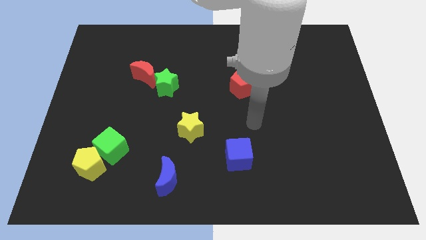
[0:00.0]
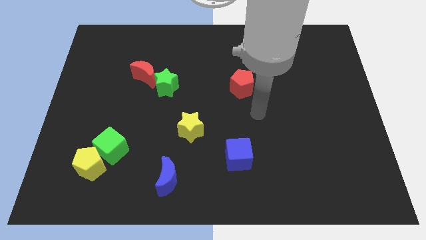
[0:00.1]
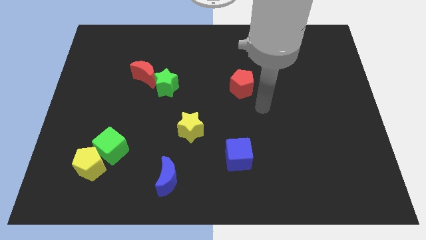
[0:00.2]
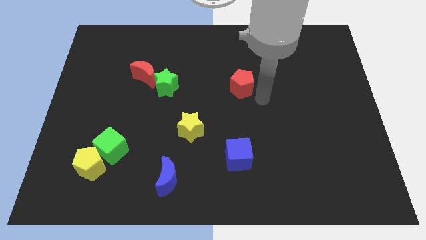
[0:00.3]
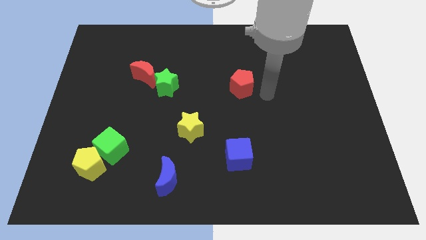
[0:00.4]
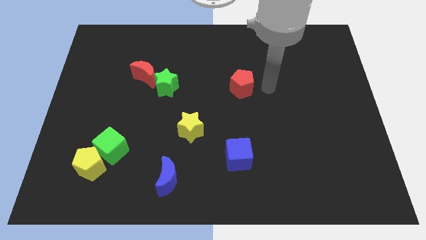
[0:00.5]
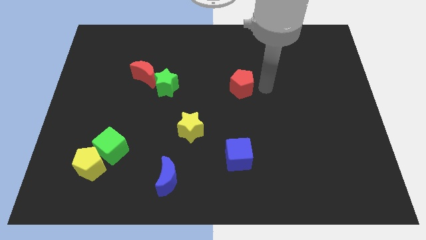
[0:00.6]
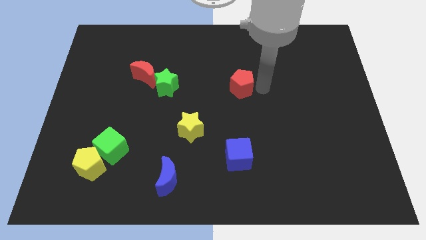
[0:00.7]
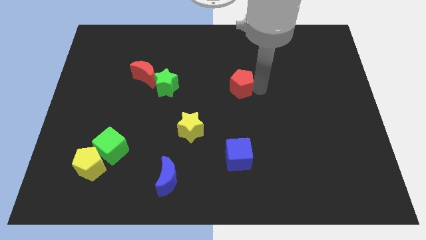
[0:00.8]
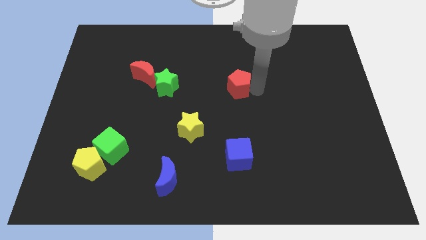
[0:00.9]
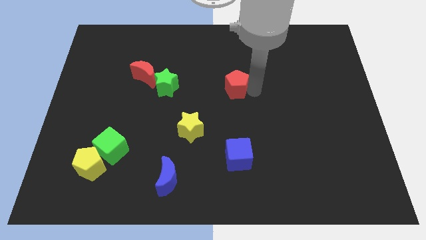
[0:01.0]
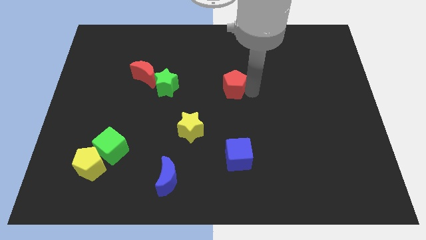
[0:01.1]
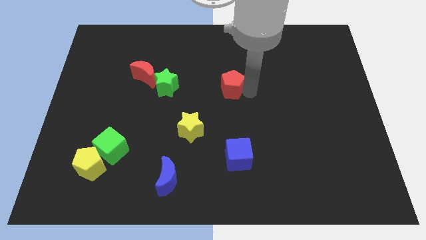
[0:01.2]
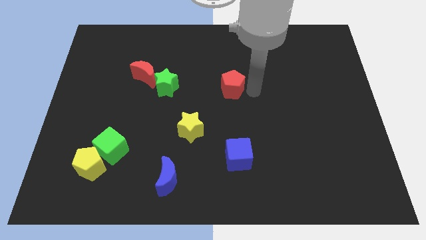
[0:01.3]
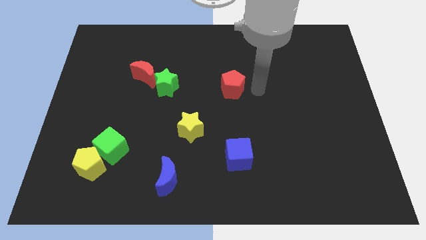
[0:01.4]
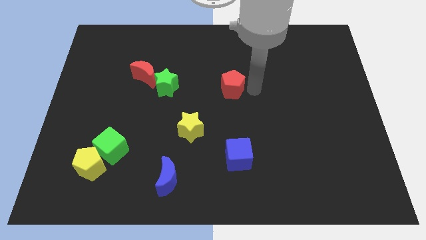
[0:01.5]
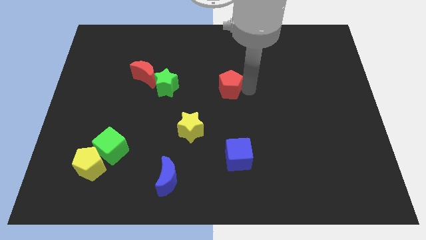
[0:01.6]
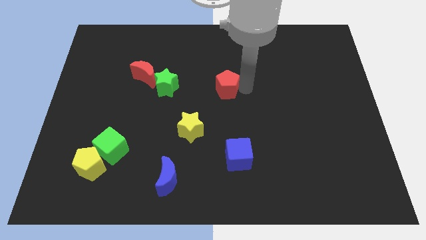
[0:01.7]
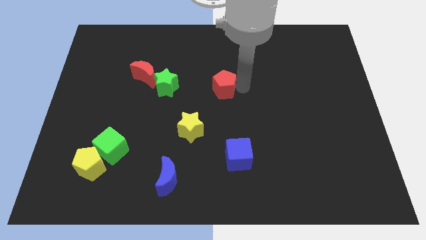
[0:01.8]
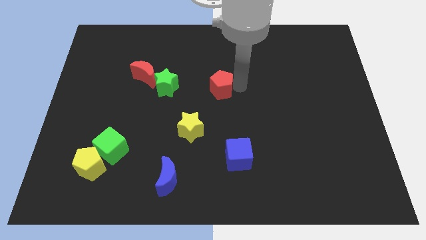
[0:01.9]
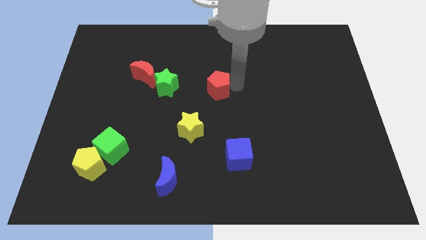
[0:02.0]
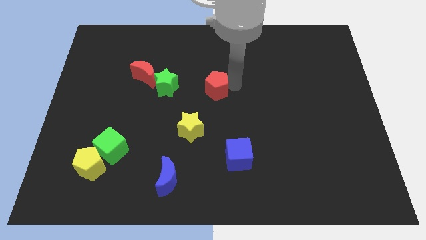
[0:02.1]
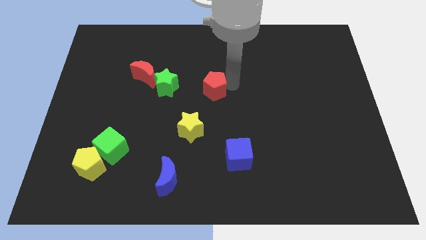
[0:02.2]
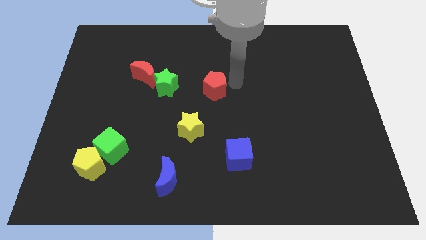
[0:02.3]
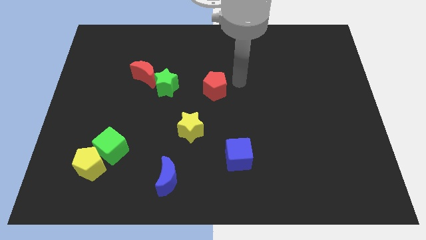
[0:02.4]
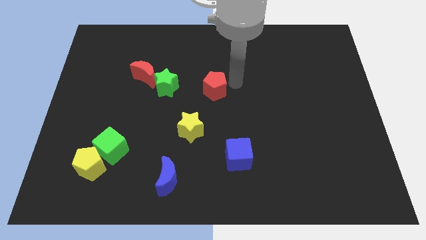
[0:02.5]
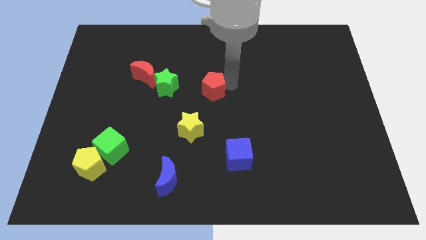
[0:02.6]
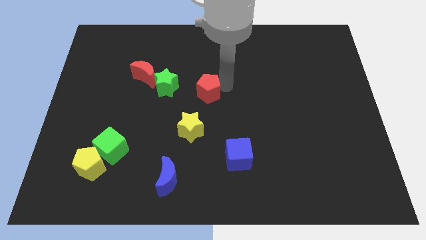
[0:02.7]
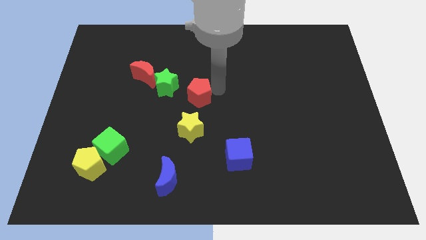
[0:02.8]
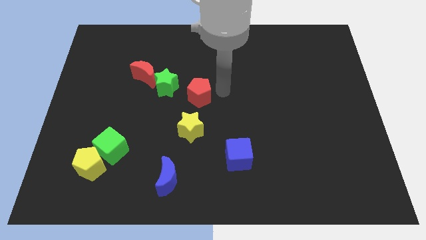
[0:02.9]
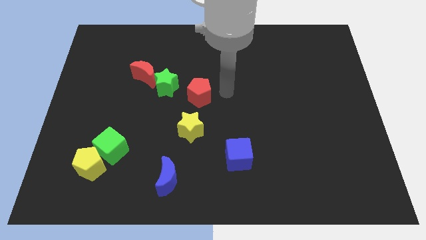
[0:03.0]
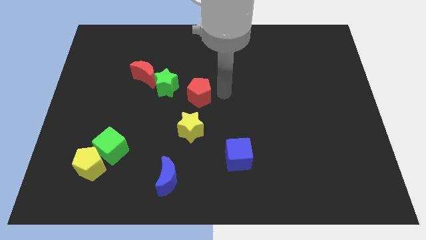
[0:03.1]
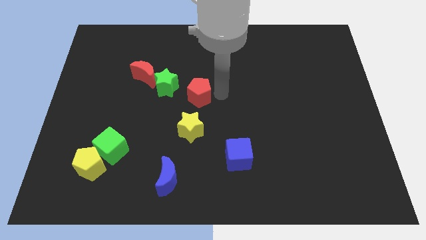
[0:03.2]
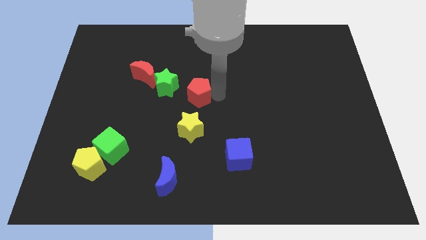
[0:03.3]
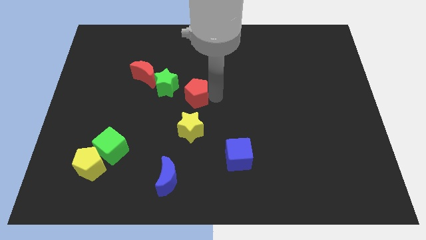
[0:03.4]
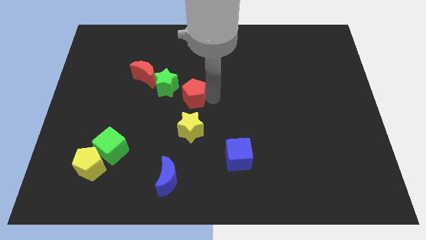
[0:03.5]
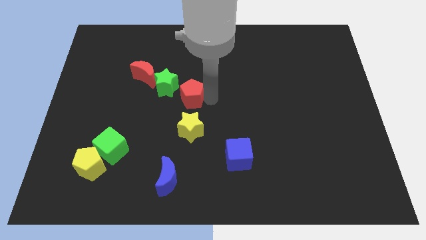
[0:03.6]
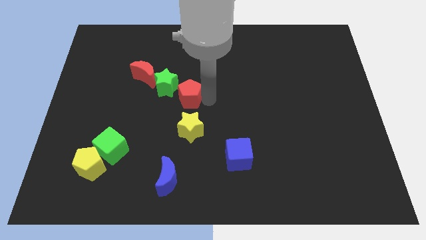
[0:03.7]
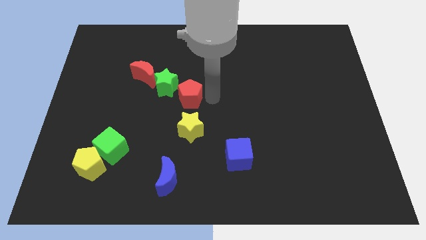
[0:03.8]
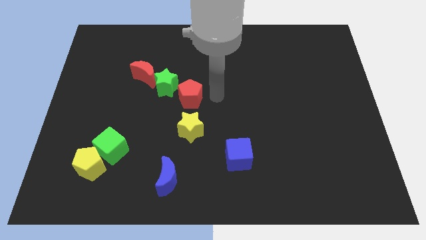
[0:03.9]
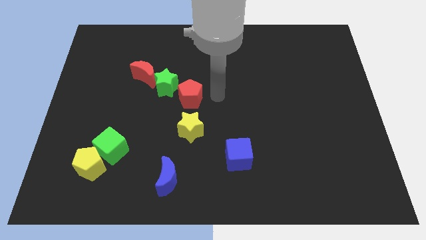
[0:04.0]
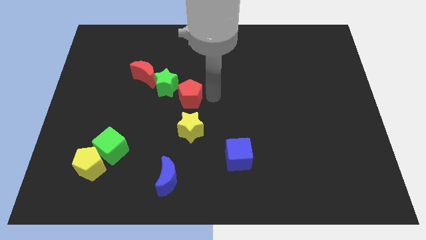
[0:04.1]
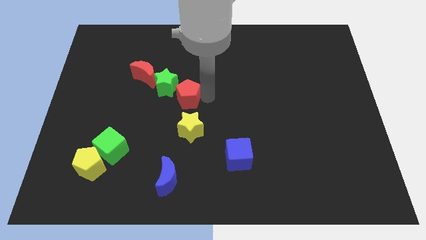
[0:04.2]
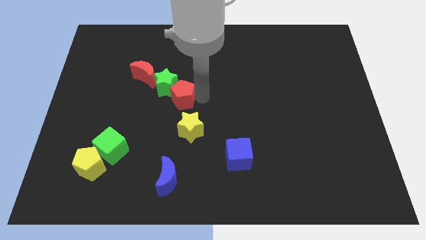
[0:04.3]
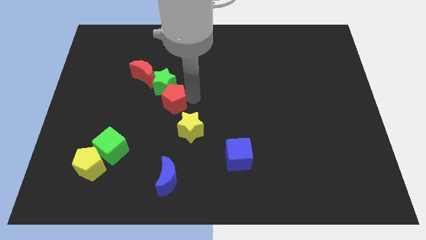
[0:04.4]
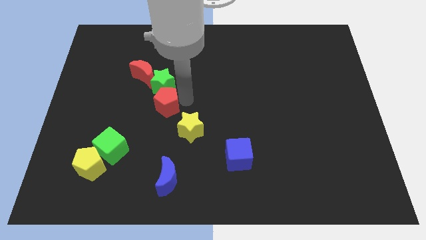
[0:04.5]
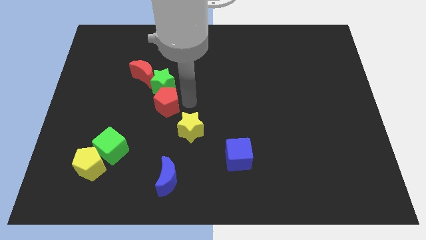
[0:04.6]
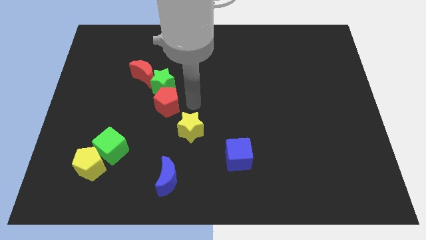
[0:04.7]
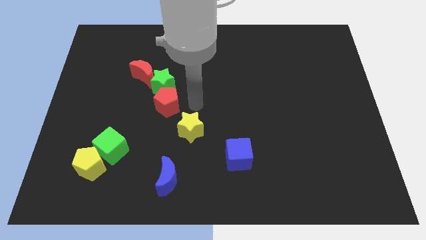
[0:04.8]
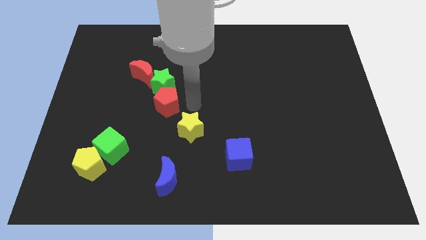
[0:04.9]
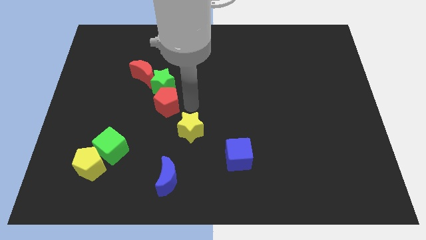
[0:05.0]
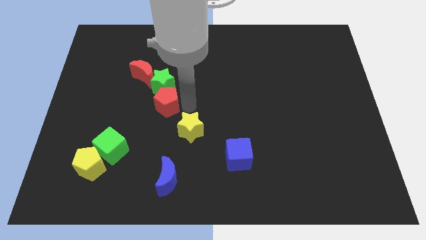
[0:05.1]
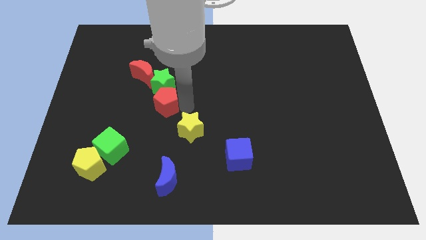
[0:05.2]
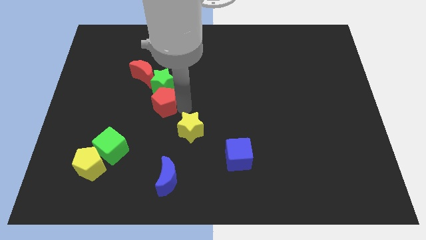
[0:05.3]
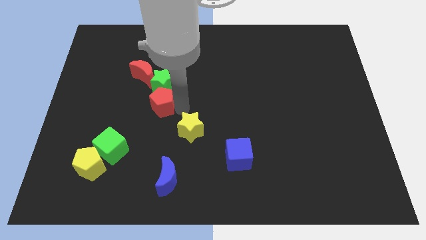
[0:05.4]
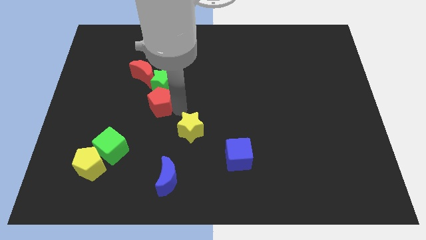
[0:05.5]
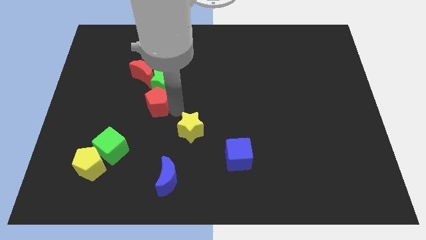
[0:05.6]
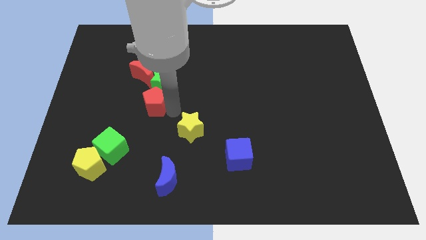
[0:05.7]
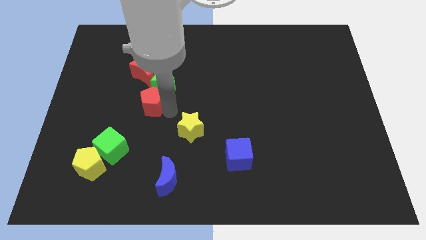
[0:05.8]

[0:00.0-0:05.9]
move the red pentagon to the left

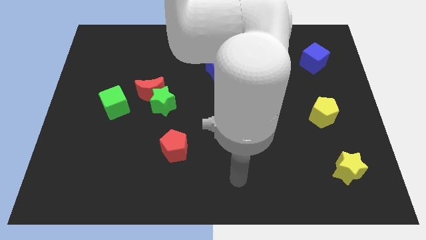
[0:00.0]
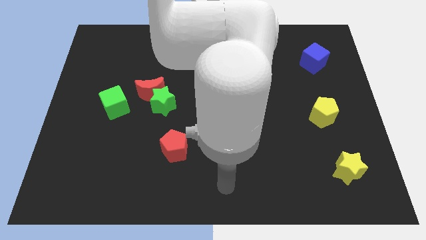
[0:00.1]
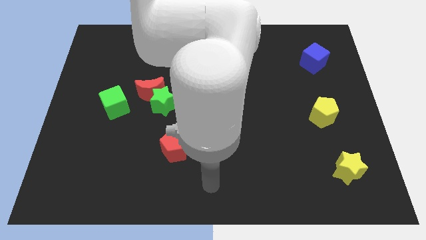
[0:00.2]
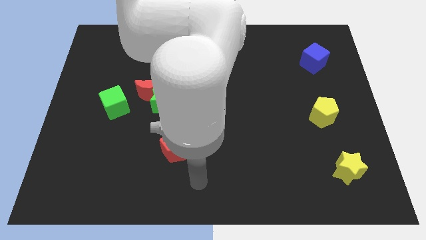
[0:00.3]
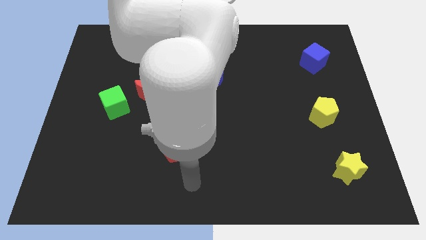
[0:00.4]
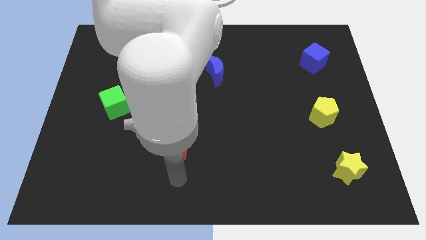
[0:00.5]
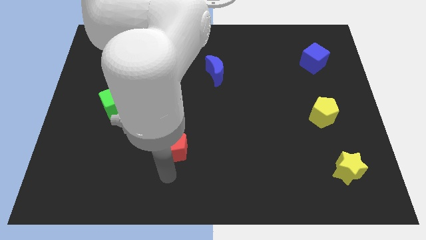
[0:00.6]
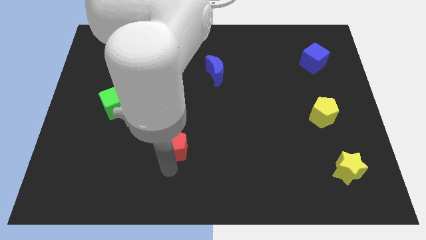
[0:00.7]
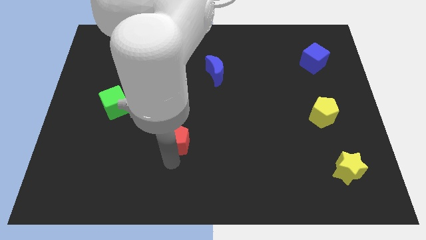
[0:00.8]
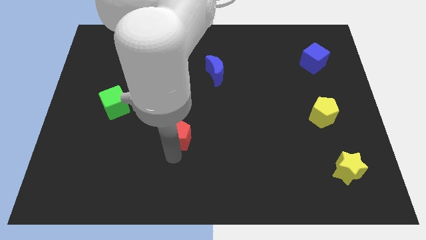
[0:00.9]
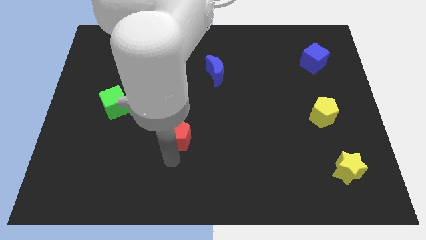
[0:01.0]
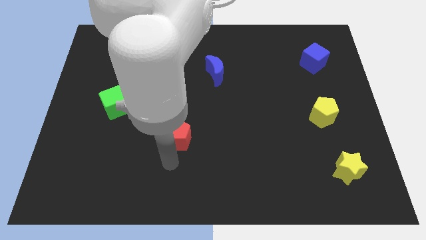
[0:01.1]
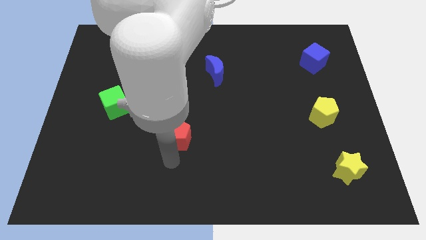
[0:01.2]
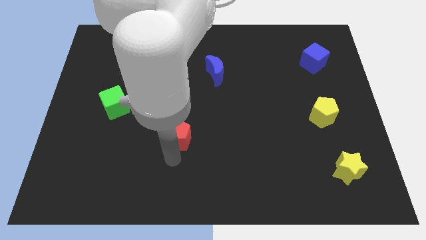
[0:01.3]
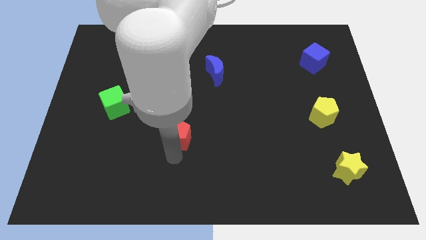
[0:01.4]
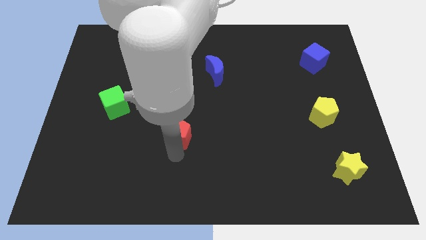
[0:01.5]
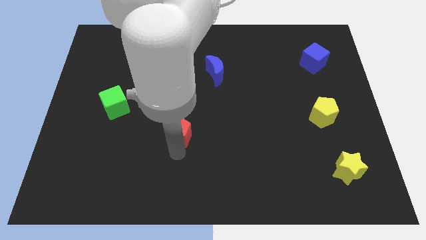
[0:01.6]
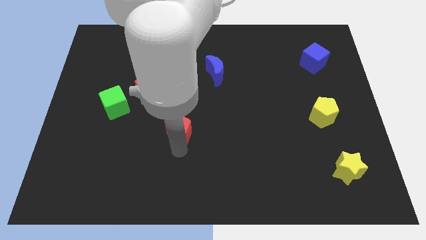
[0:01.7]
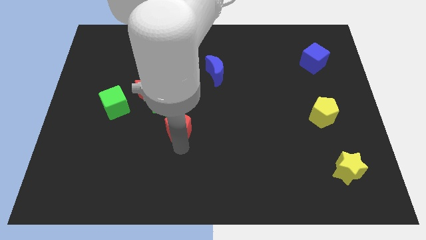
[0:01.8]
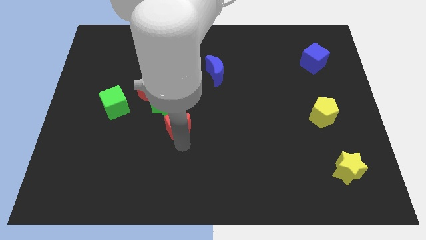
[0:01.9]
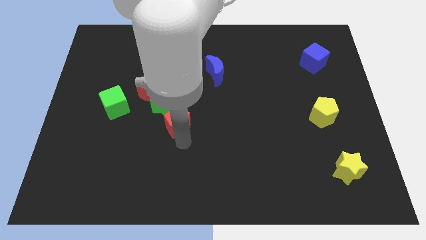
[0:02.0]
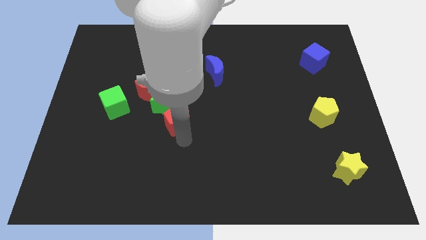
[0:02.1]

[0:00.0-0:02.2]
push the red pentagon a little upwards

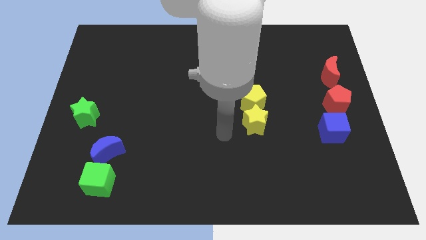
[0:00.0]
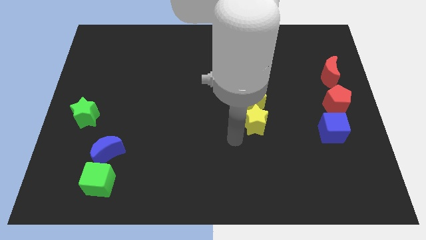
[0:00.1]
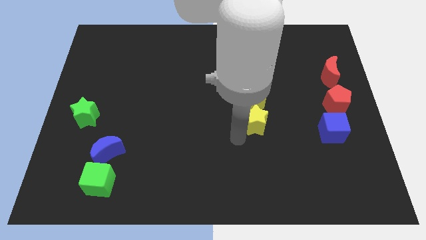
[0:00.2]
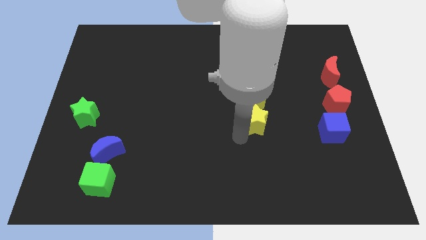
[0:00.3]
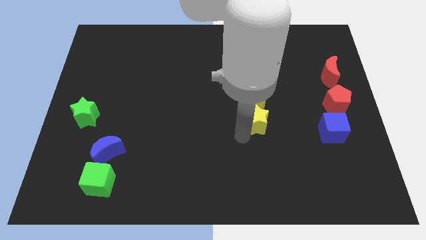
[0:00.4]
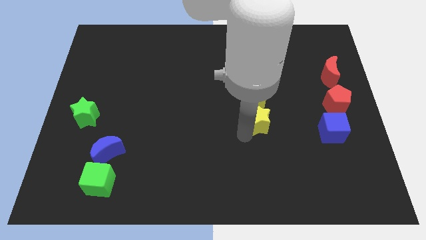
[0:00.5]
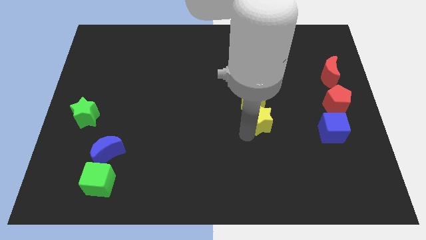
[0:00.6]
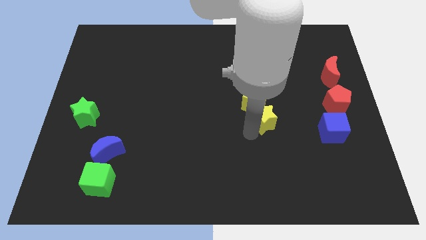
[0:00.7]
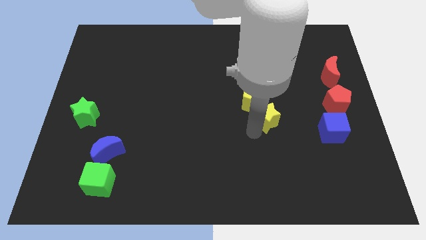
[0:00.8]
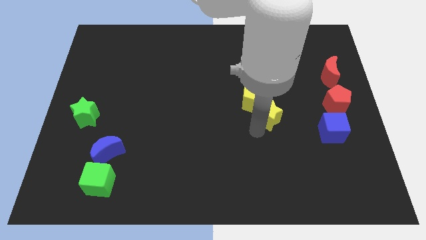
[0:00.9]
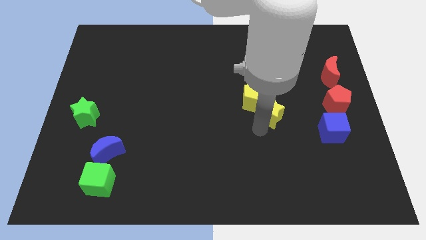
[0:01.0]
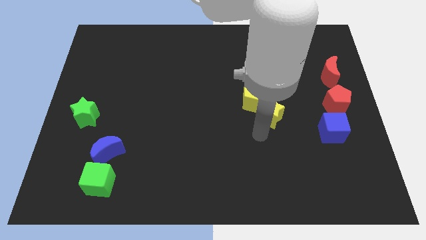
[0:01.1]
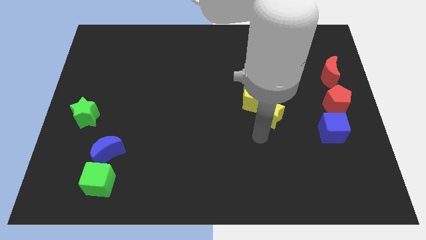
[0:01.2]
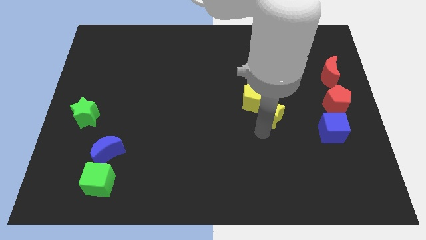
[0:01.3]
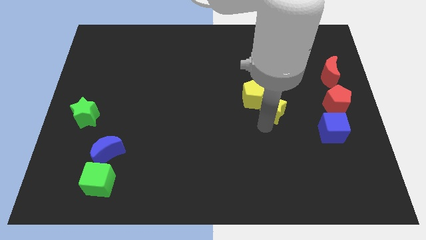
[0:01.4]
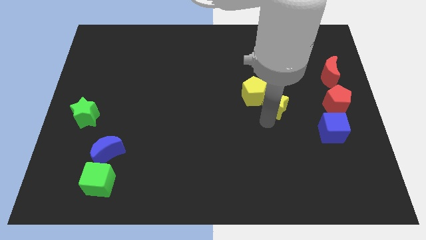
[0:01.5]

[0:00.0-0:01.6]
slide the yellow star diagonally up and right a bit
